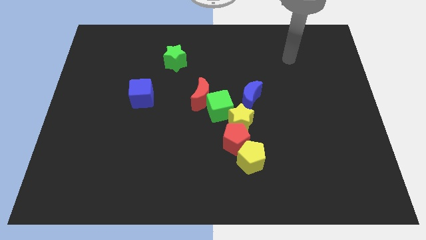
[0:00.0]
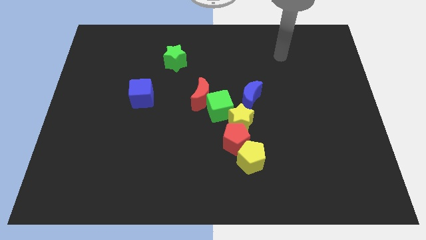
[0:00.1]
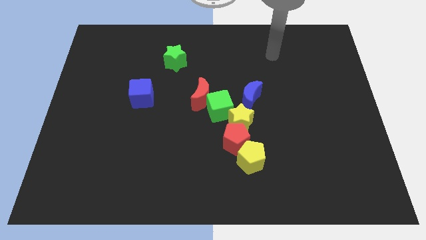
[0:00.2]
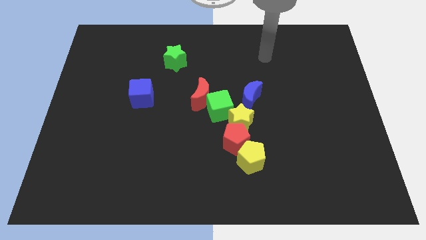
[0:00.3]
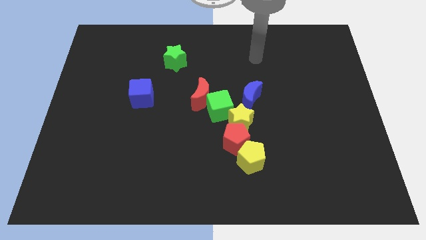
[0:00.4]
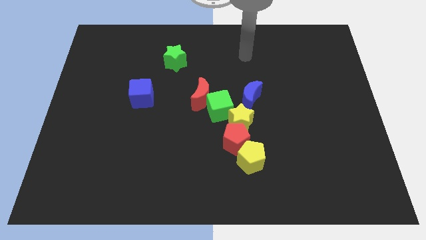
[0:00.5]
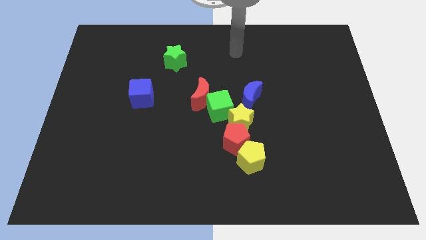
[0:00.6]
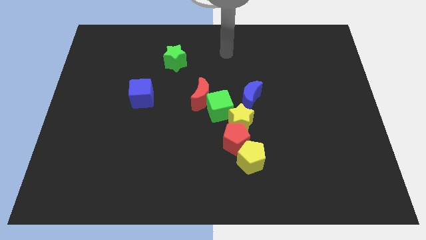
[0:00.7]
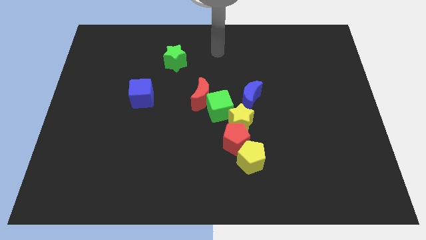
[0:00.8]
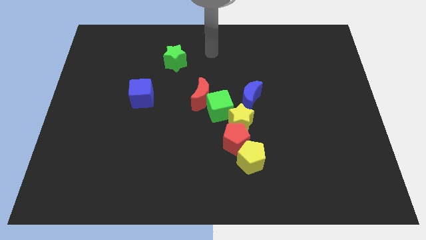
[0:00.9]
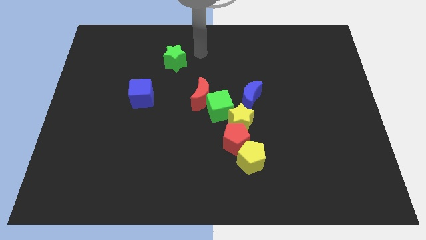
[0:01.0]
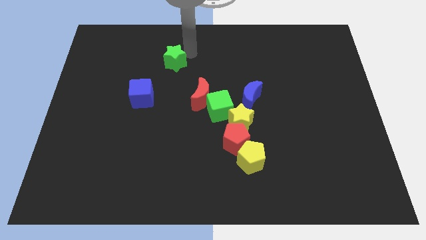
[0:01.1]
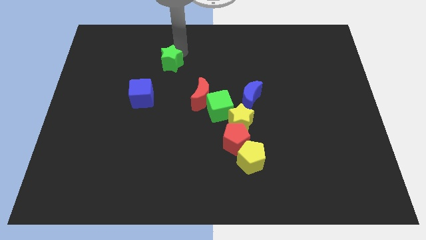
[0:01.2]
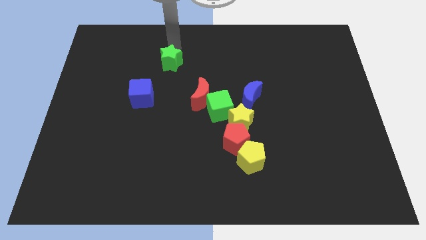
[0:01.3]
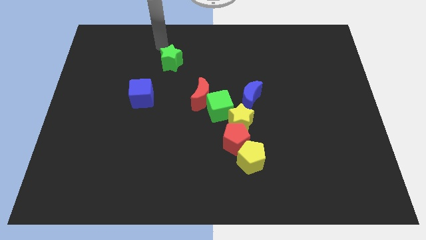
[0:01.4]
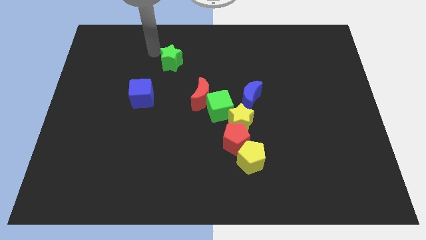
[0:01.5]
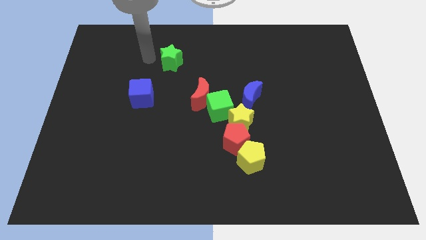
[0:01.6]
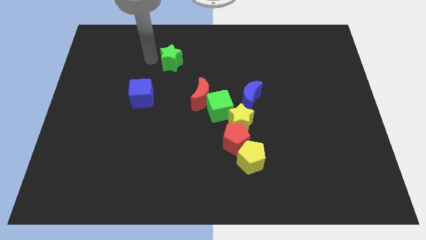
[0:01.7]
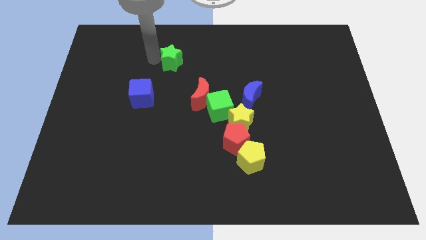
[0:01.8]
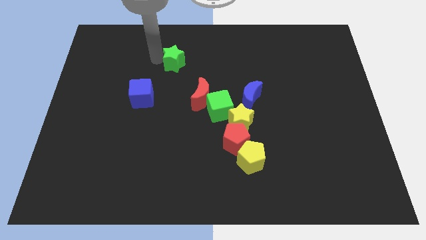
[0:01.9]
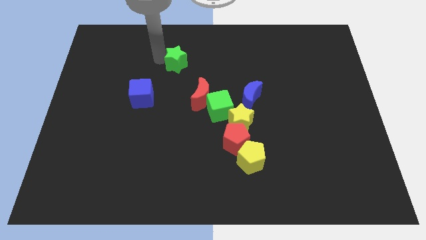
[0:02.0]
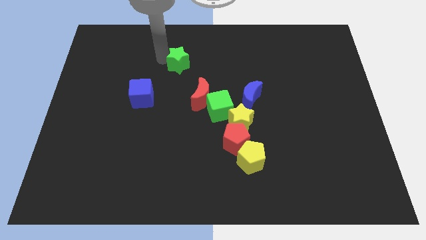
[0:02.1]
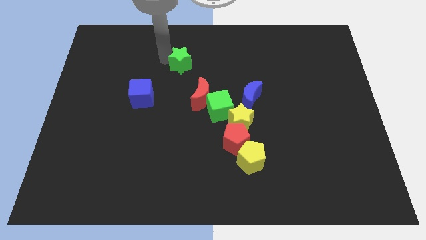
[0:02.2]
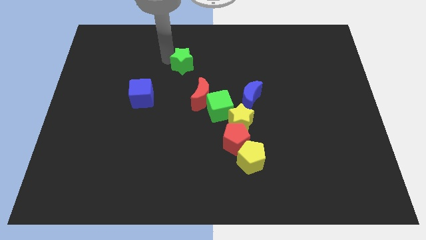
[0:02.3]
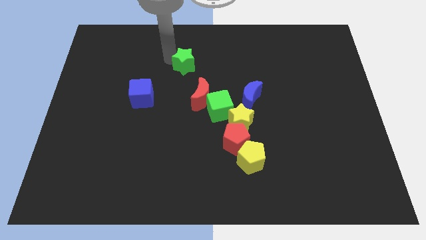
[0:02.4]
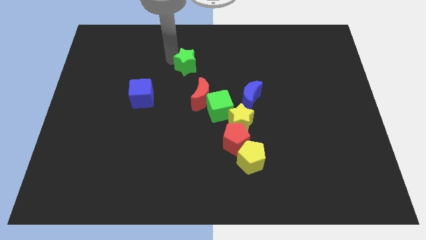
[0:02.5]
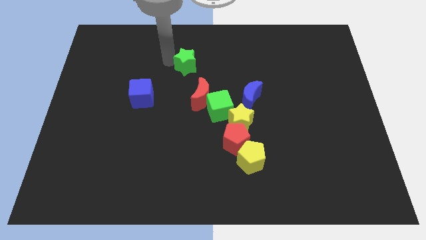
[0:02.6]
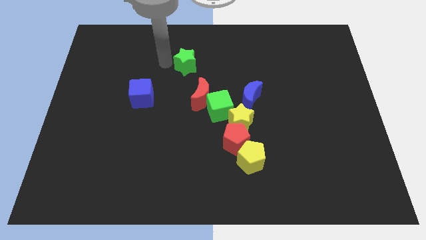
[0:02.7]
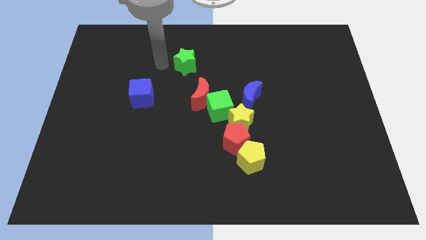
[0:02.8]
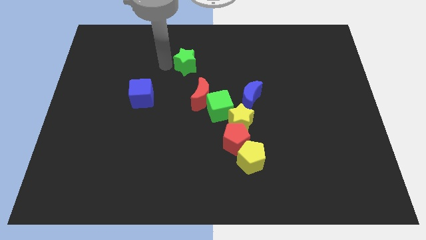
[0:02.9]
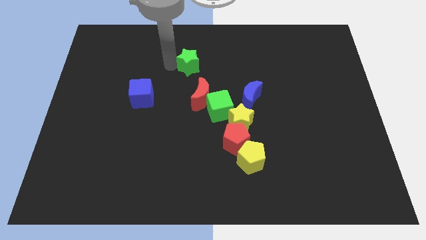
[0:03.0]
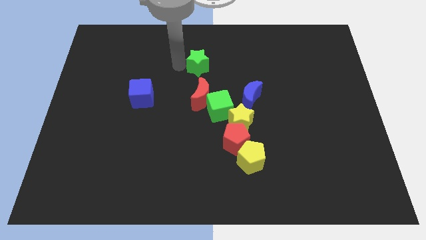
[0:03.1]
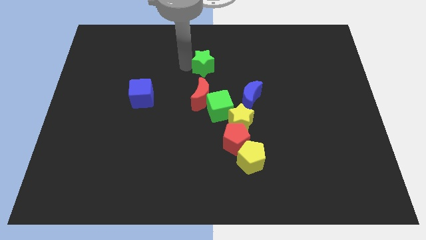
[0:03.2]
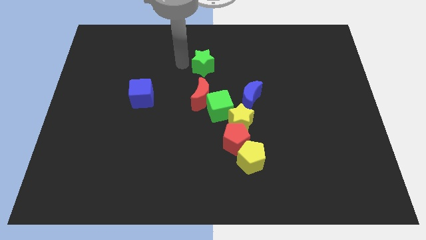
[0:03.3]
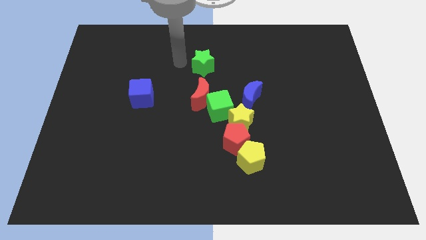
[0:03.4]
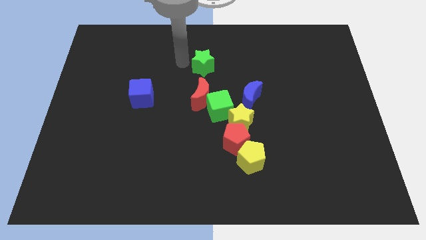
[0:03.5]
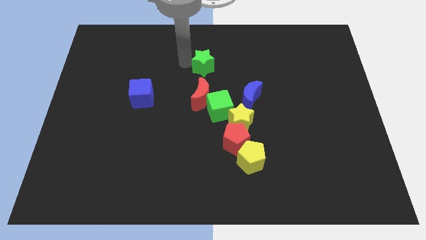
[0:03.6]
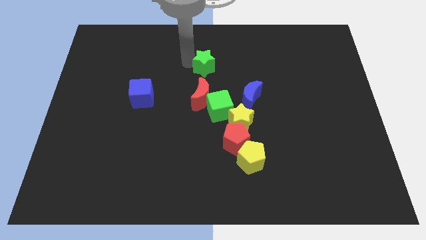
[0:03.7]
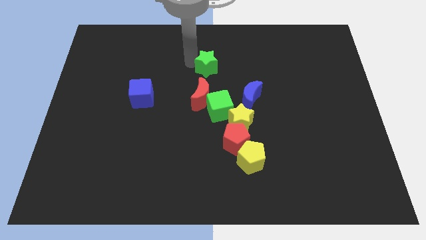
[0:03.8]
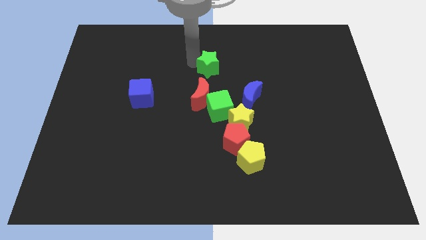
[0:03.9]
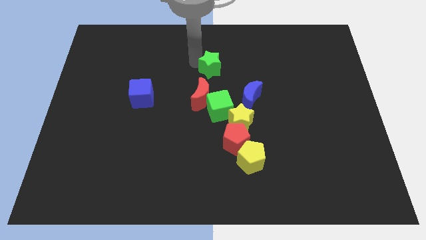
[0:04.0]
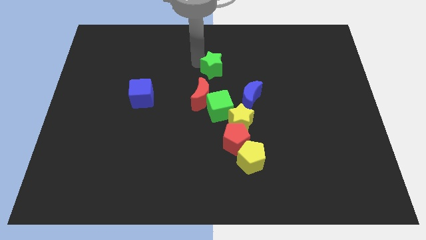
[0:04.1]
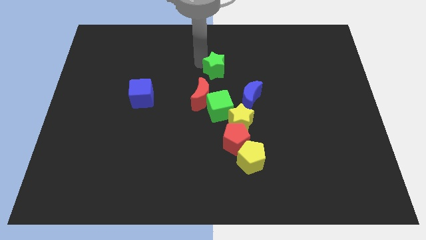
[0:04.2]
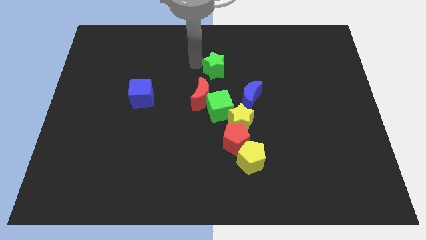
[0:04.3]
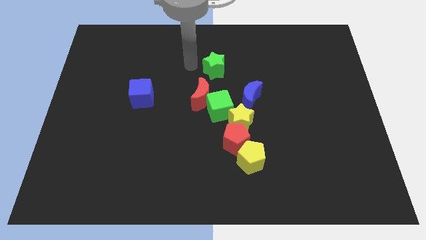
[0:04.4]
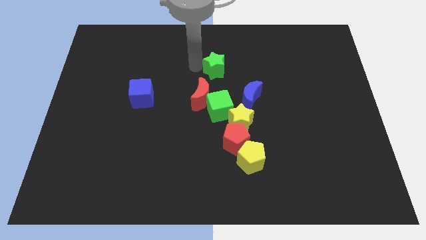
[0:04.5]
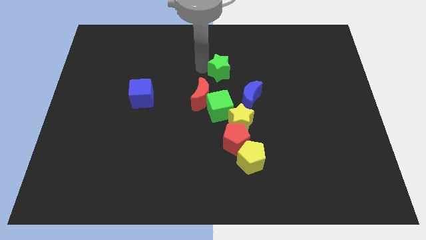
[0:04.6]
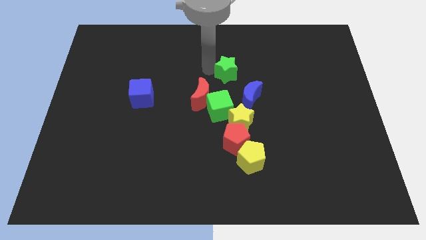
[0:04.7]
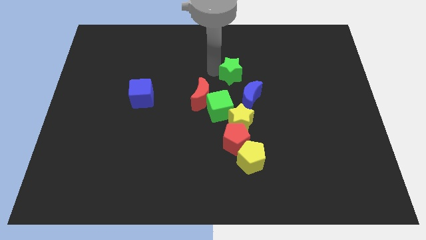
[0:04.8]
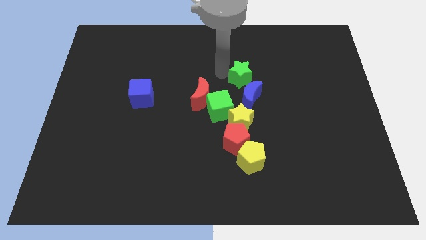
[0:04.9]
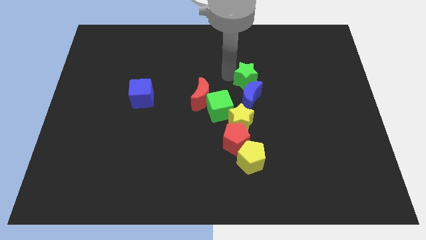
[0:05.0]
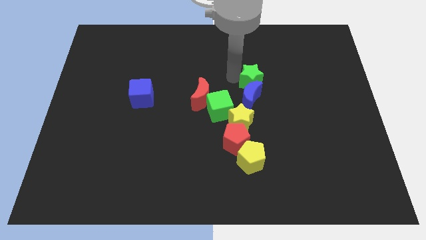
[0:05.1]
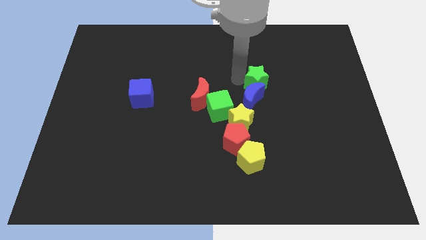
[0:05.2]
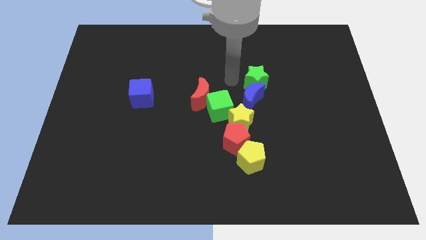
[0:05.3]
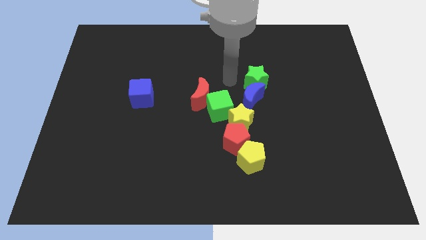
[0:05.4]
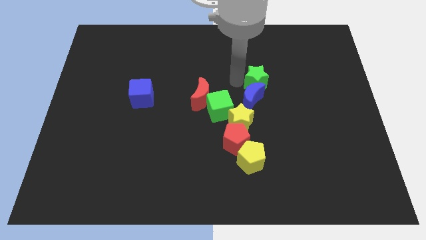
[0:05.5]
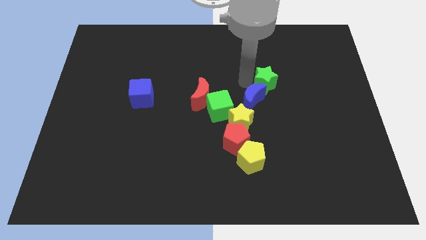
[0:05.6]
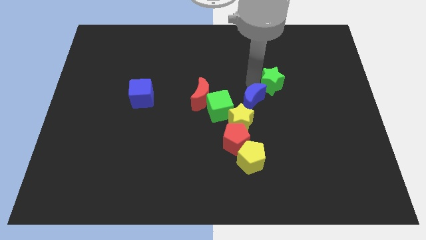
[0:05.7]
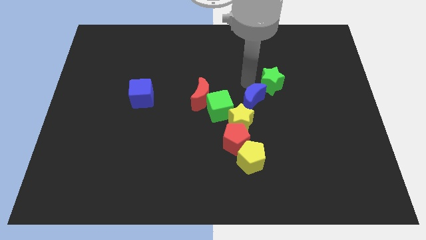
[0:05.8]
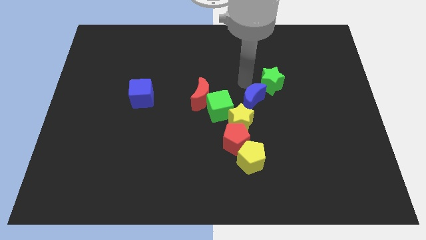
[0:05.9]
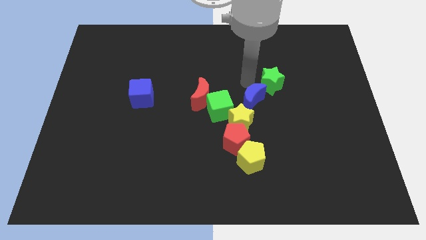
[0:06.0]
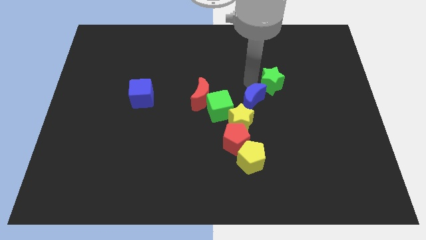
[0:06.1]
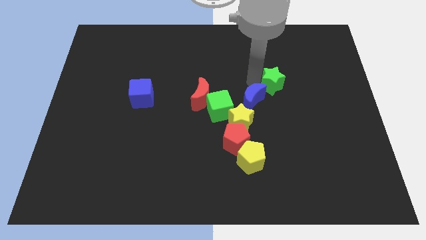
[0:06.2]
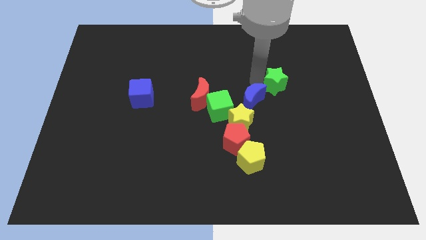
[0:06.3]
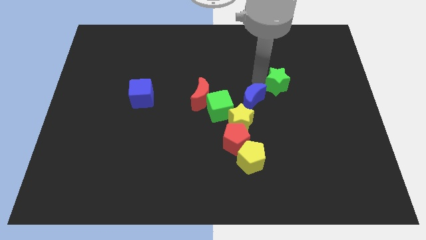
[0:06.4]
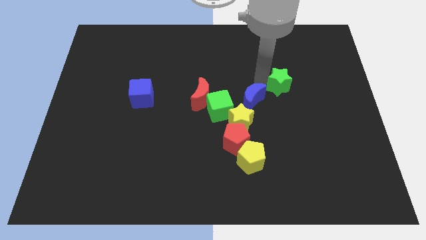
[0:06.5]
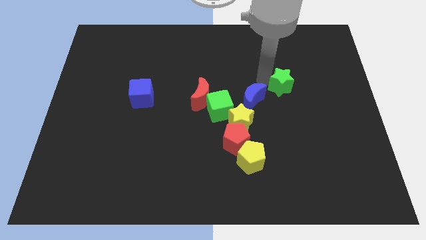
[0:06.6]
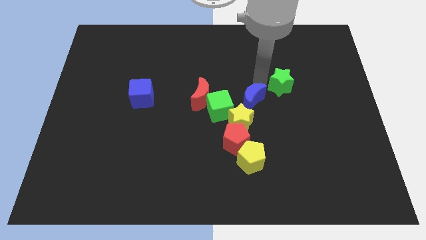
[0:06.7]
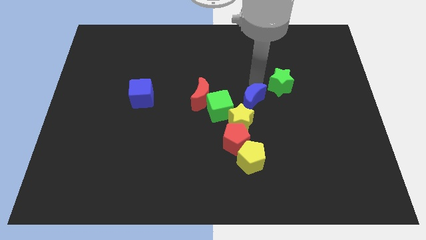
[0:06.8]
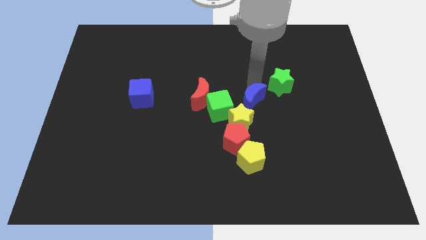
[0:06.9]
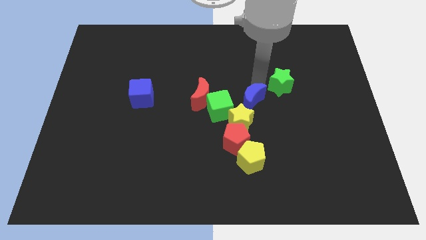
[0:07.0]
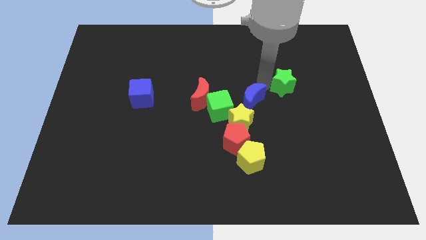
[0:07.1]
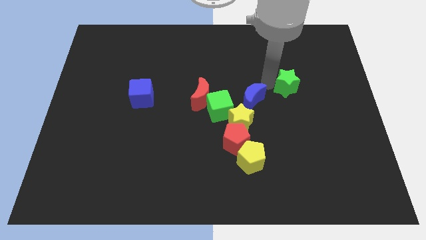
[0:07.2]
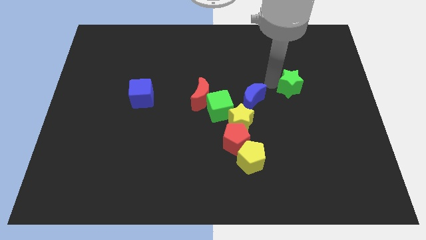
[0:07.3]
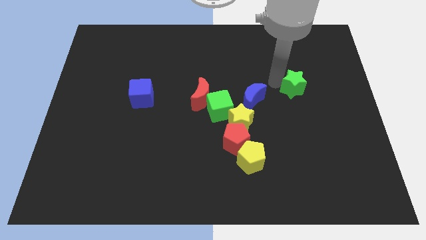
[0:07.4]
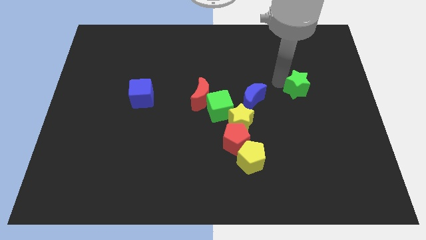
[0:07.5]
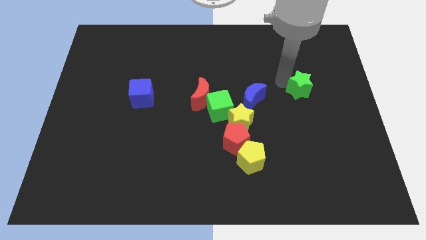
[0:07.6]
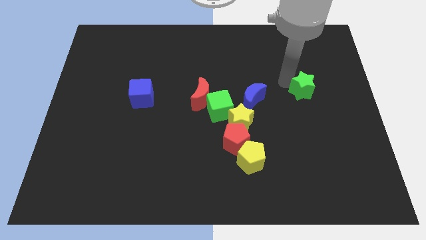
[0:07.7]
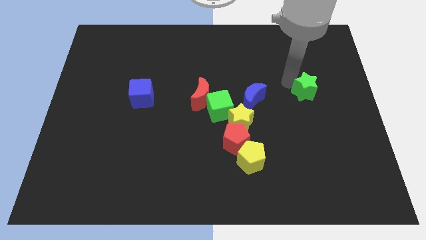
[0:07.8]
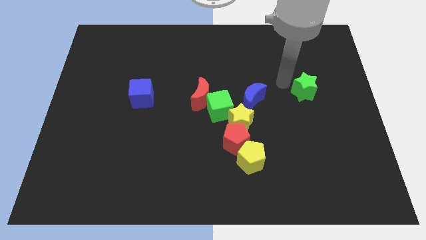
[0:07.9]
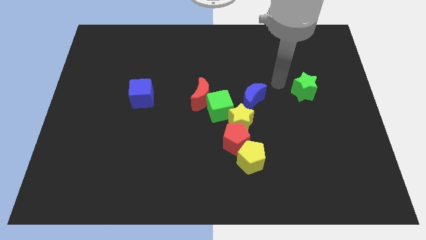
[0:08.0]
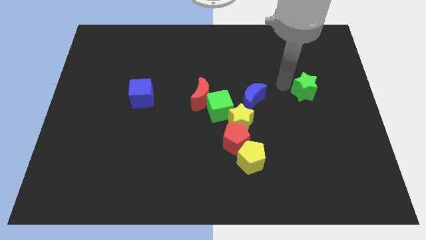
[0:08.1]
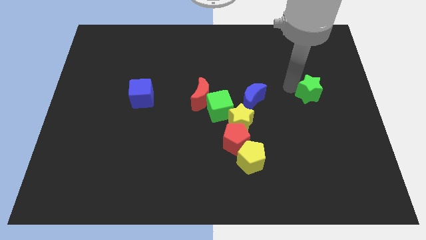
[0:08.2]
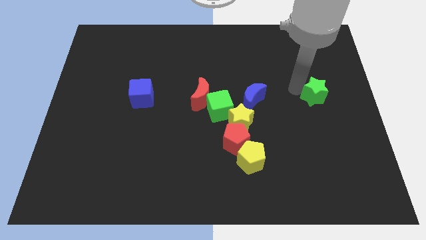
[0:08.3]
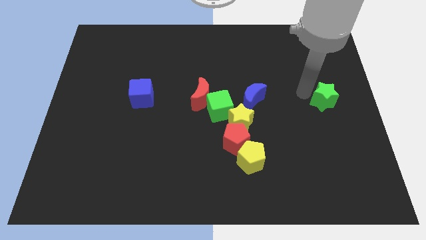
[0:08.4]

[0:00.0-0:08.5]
move the green star to the right side
